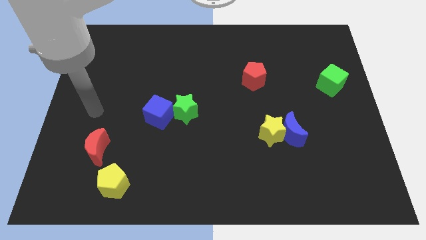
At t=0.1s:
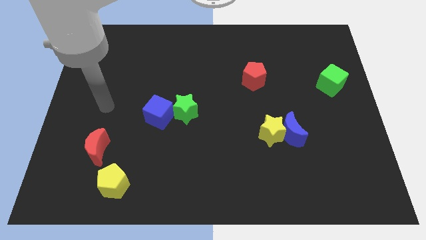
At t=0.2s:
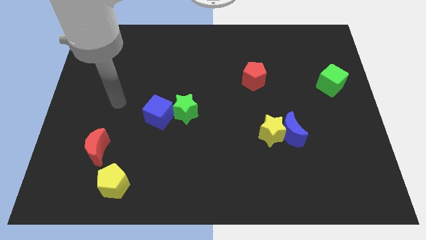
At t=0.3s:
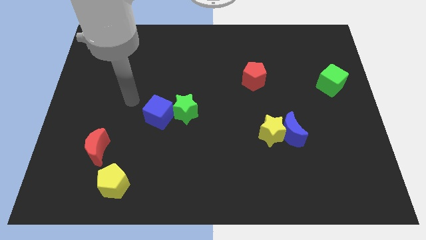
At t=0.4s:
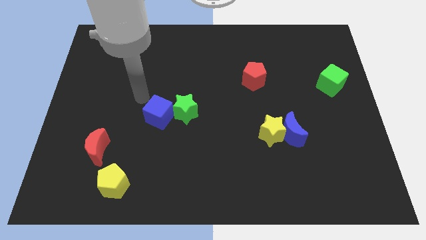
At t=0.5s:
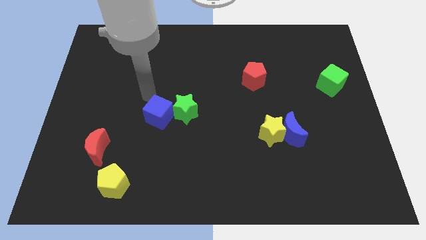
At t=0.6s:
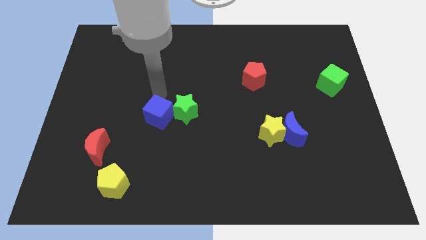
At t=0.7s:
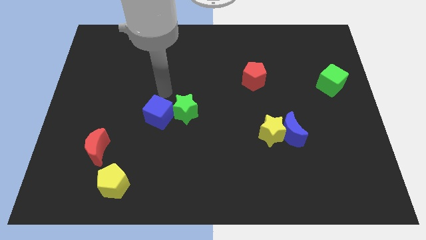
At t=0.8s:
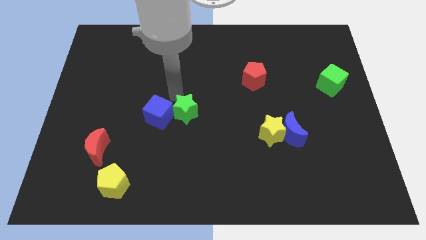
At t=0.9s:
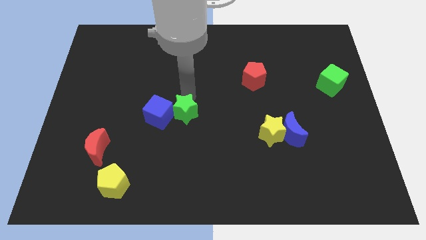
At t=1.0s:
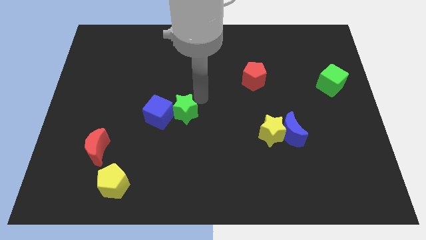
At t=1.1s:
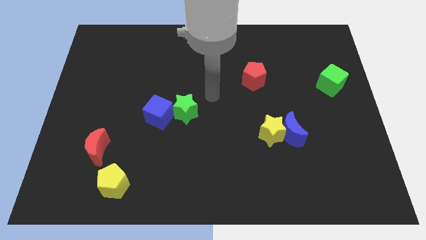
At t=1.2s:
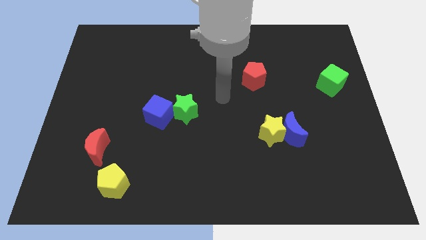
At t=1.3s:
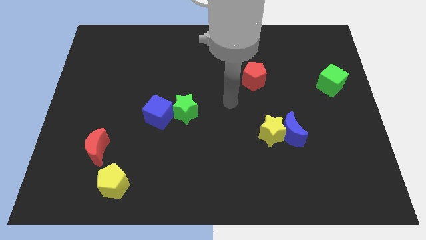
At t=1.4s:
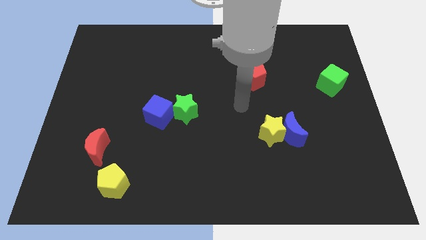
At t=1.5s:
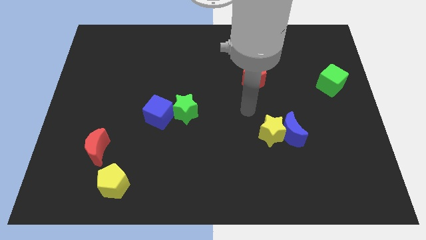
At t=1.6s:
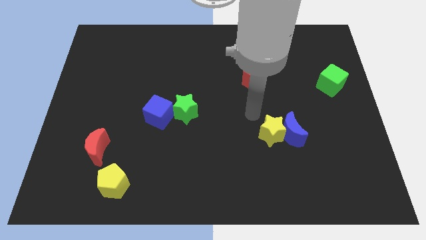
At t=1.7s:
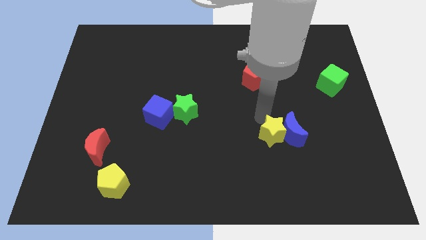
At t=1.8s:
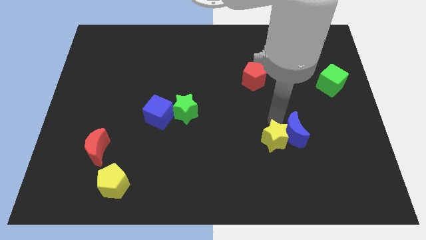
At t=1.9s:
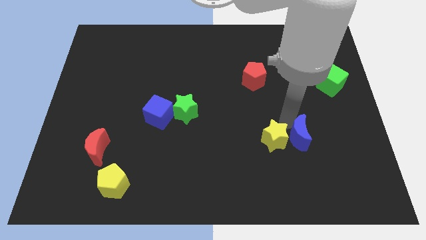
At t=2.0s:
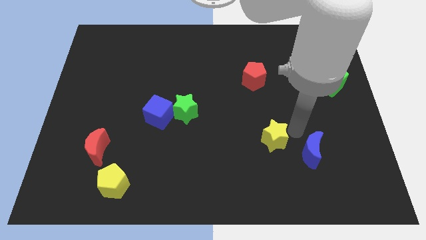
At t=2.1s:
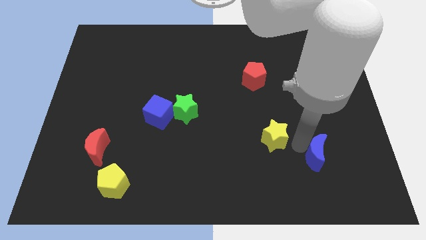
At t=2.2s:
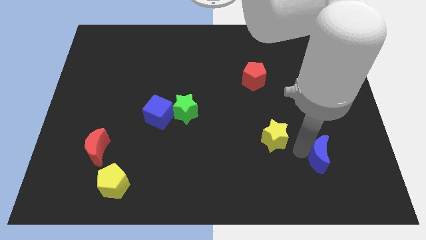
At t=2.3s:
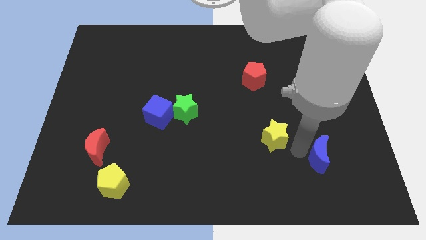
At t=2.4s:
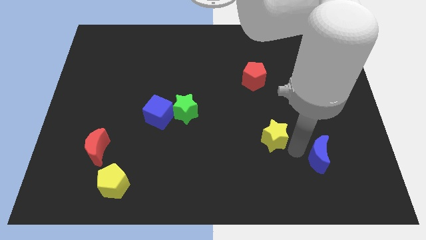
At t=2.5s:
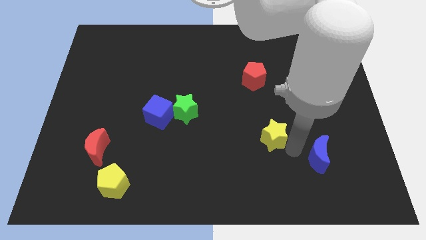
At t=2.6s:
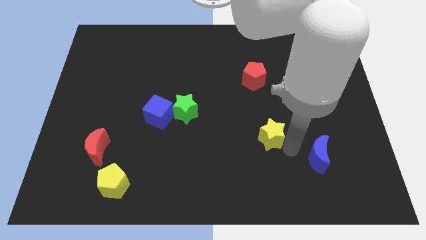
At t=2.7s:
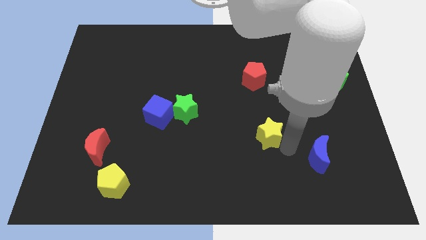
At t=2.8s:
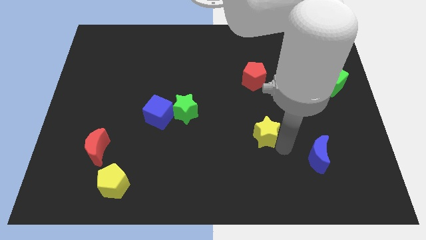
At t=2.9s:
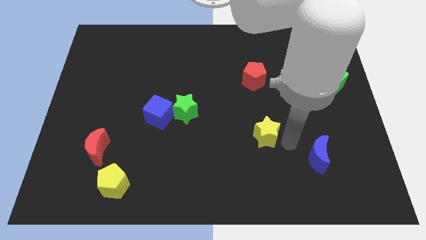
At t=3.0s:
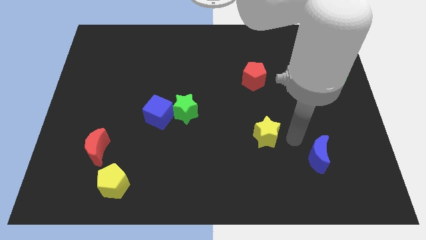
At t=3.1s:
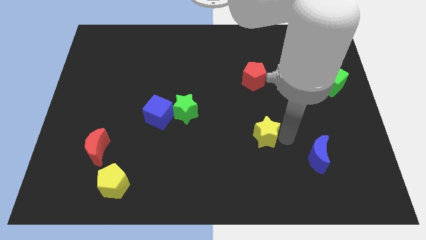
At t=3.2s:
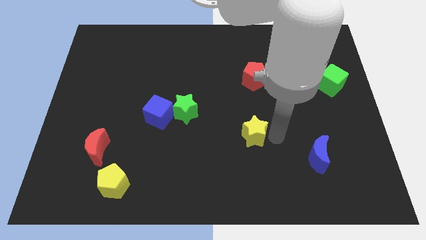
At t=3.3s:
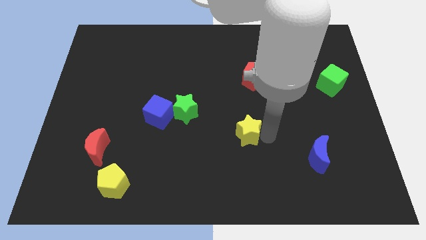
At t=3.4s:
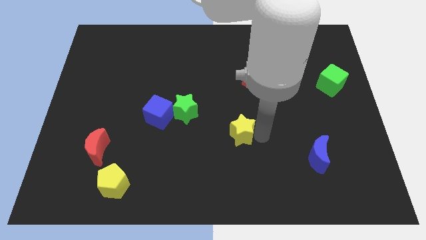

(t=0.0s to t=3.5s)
slide the yellow star a little left

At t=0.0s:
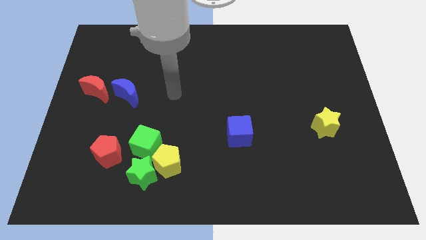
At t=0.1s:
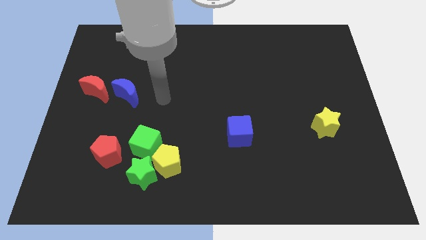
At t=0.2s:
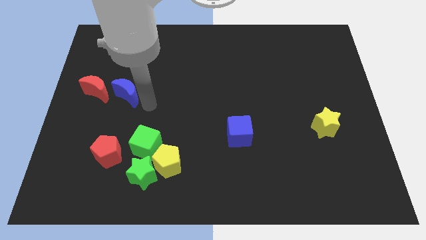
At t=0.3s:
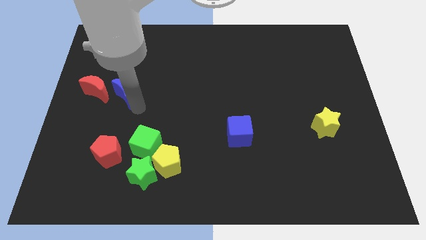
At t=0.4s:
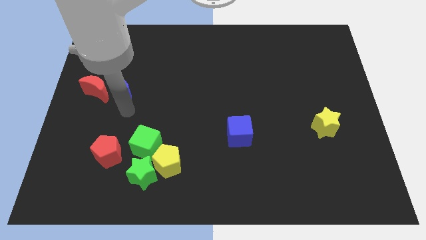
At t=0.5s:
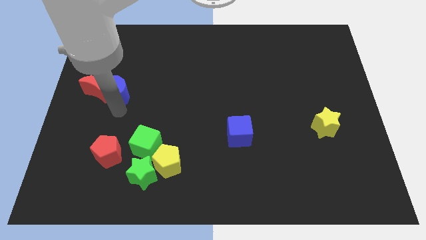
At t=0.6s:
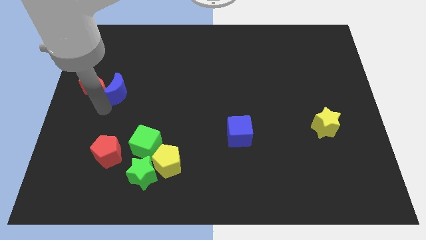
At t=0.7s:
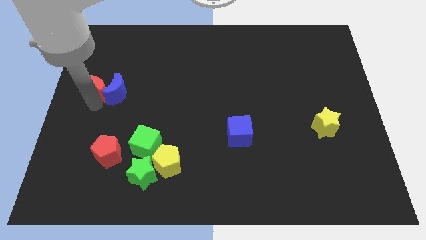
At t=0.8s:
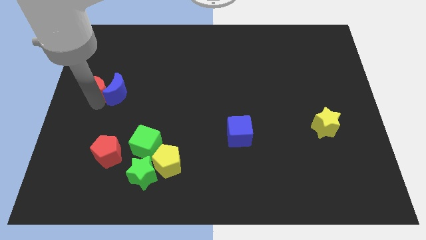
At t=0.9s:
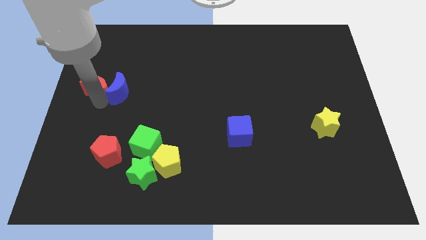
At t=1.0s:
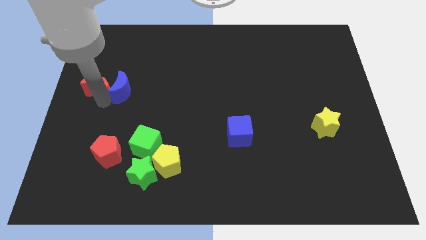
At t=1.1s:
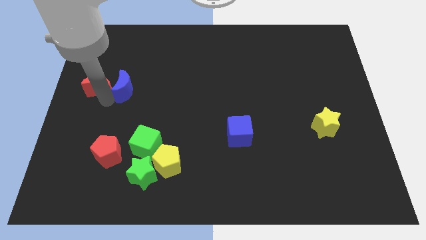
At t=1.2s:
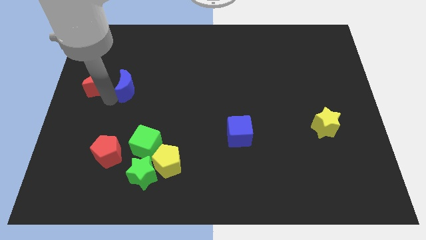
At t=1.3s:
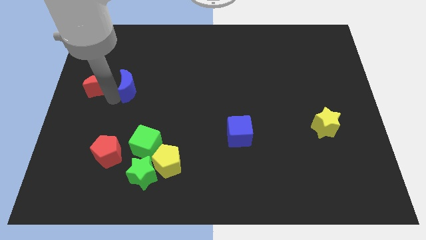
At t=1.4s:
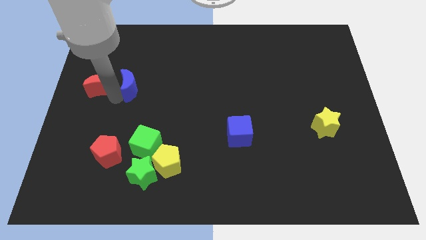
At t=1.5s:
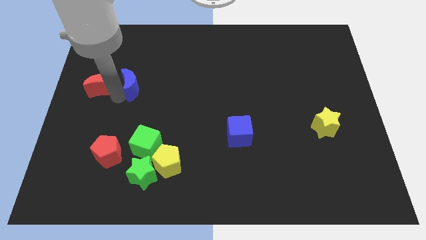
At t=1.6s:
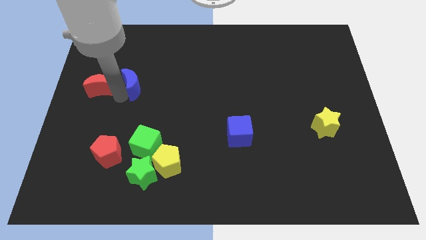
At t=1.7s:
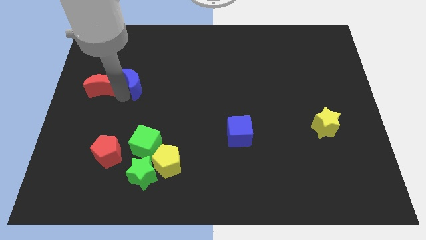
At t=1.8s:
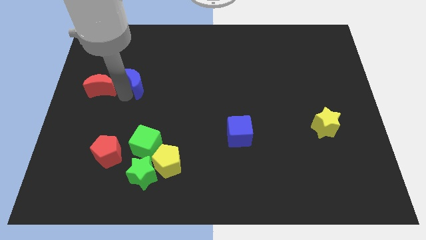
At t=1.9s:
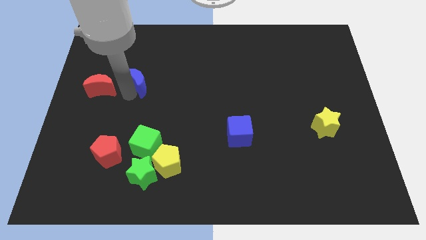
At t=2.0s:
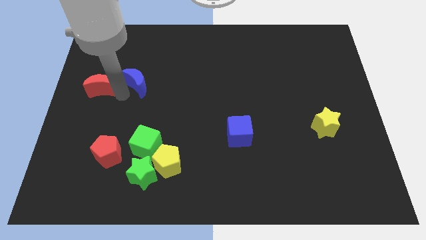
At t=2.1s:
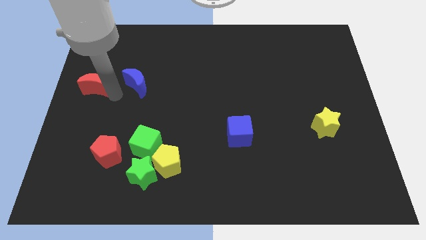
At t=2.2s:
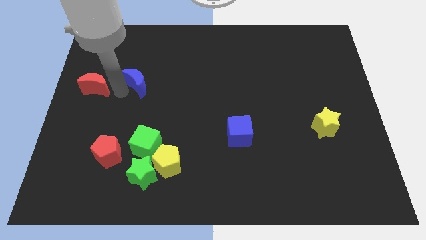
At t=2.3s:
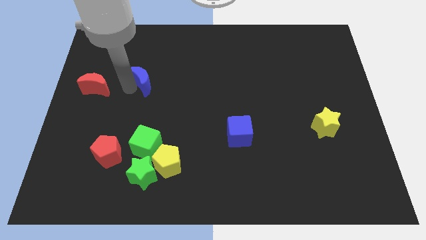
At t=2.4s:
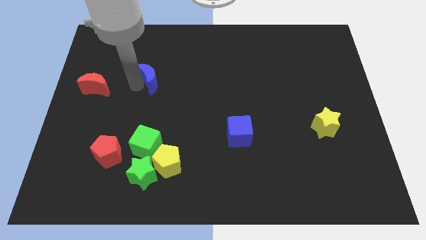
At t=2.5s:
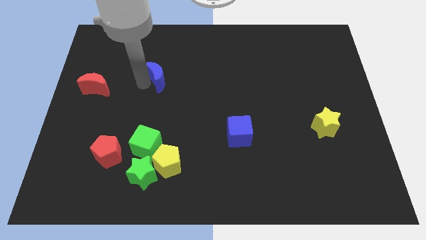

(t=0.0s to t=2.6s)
slightly slide the blue moon up and to the right

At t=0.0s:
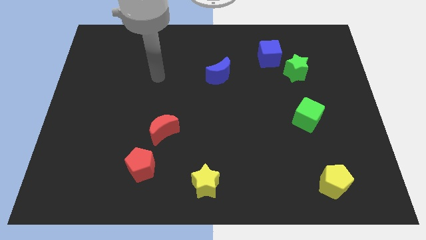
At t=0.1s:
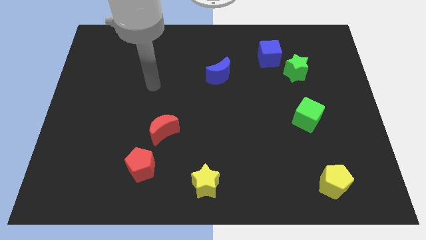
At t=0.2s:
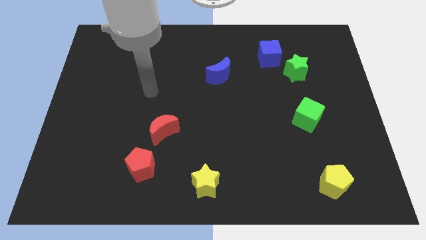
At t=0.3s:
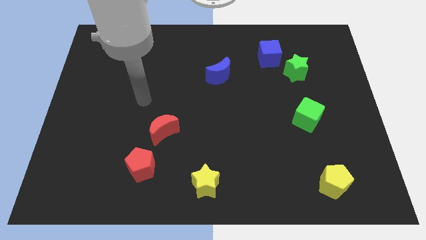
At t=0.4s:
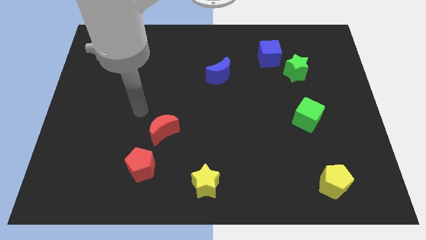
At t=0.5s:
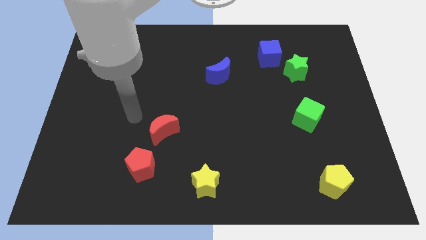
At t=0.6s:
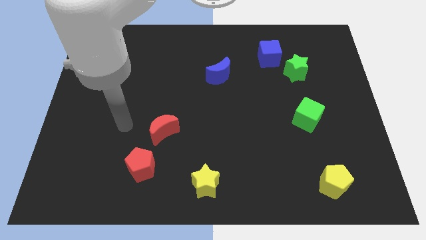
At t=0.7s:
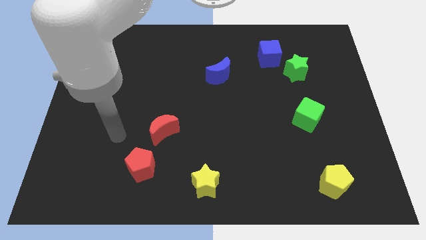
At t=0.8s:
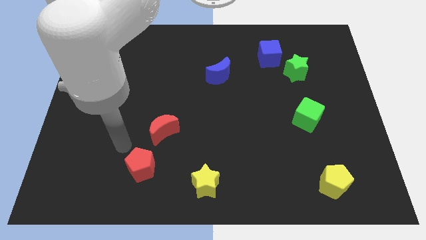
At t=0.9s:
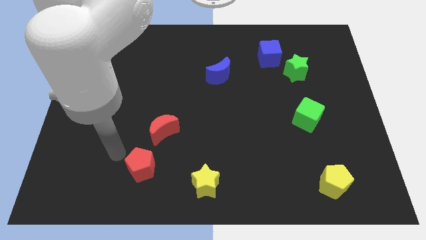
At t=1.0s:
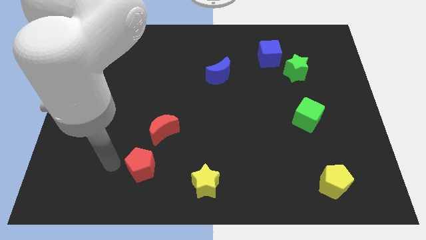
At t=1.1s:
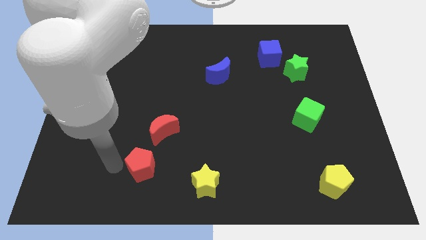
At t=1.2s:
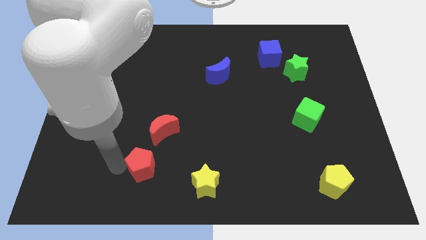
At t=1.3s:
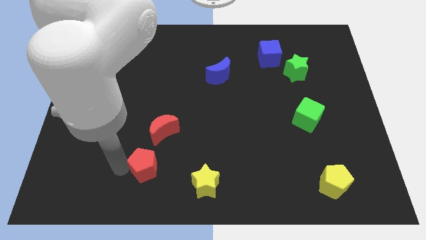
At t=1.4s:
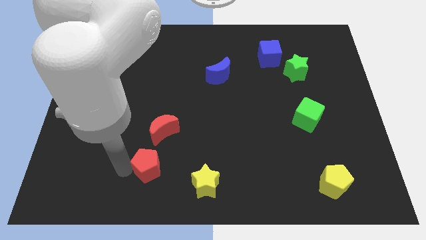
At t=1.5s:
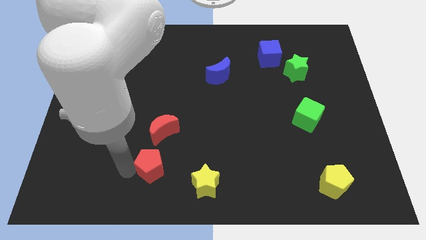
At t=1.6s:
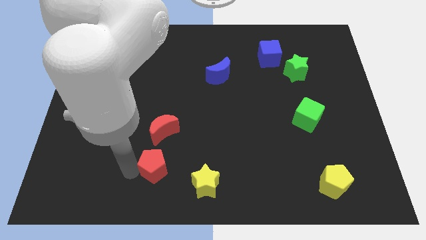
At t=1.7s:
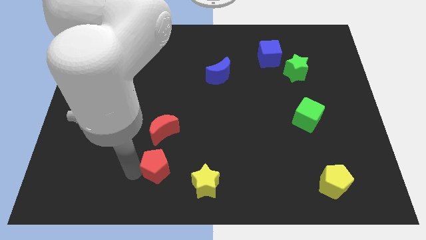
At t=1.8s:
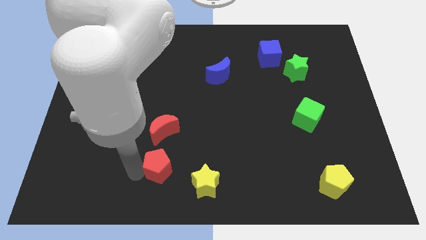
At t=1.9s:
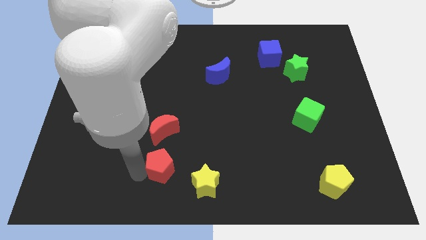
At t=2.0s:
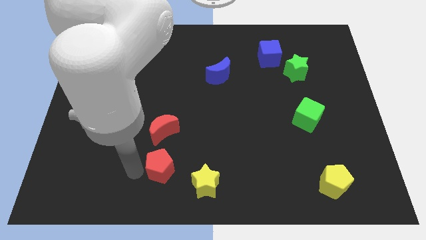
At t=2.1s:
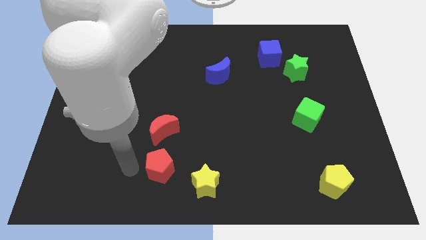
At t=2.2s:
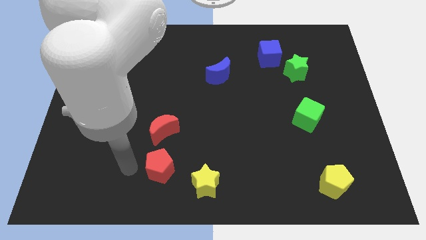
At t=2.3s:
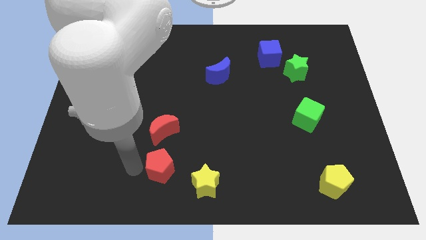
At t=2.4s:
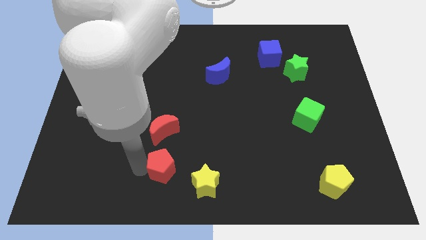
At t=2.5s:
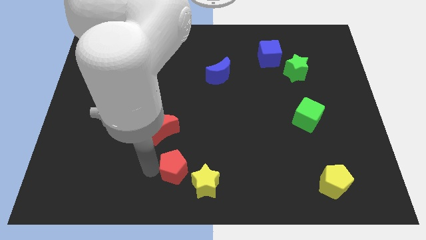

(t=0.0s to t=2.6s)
slightly push the red pentagon to the right

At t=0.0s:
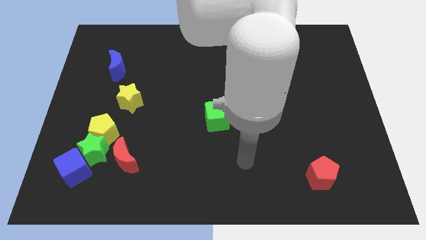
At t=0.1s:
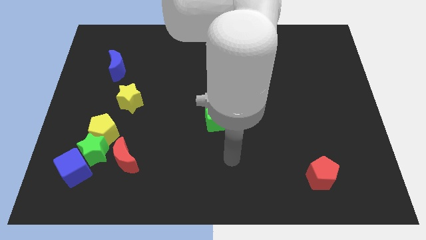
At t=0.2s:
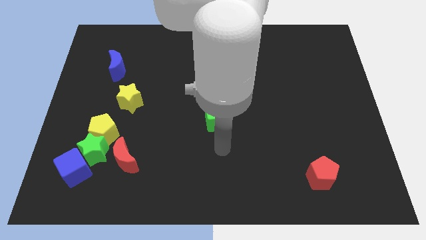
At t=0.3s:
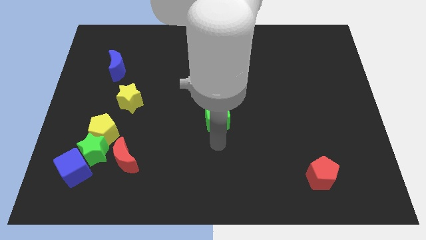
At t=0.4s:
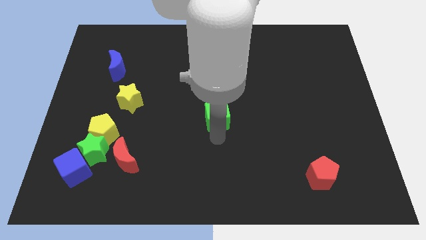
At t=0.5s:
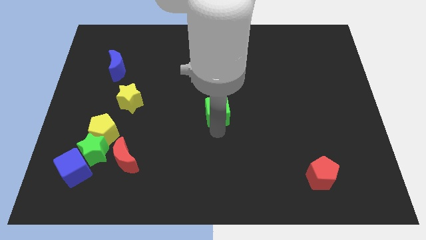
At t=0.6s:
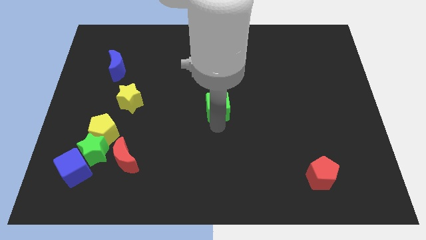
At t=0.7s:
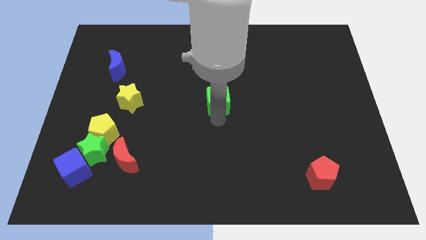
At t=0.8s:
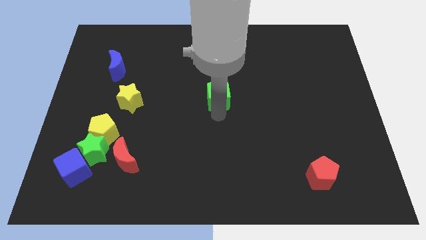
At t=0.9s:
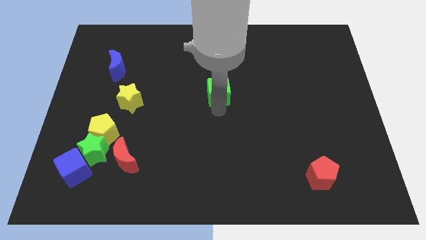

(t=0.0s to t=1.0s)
move the green cube a bit upwards
